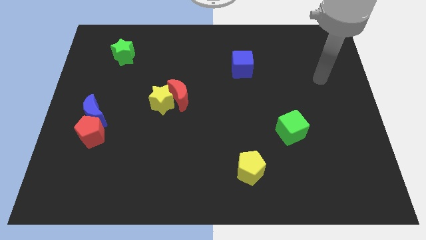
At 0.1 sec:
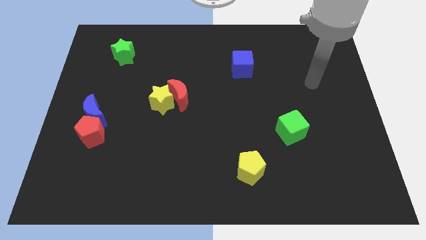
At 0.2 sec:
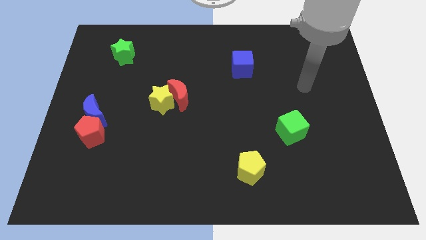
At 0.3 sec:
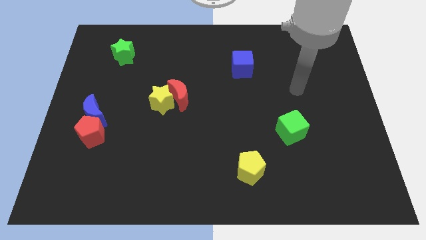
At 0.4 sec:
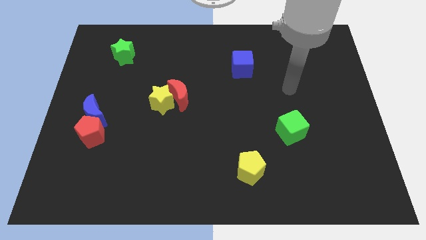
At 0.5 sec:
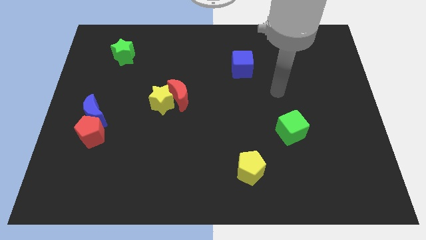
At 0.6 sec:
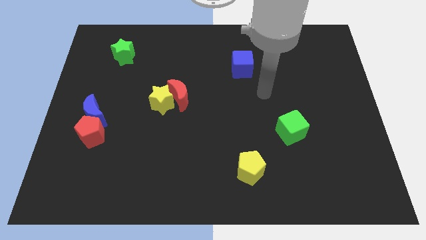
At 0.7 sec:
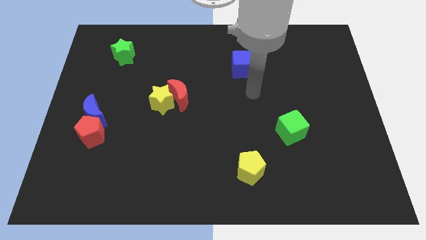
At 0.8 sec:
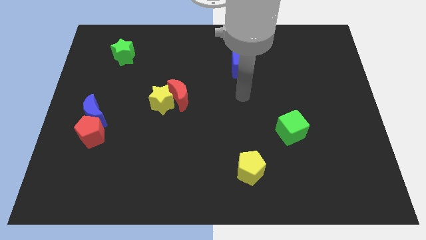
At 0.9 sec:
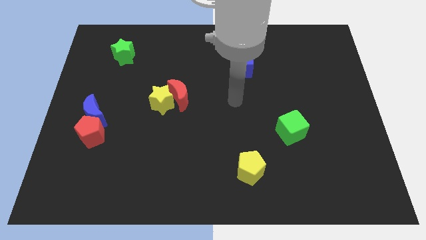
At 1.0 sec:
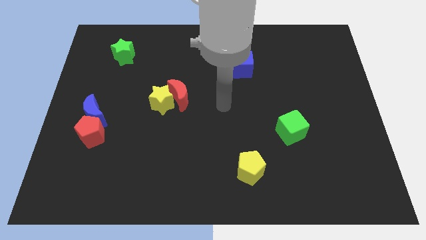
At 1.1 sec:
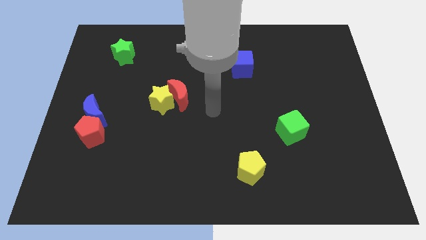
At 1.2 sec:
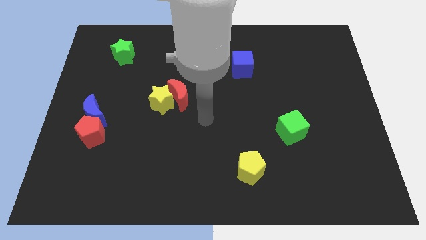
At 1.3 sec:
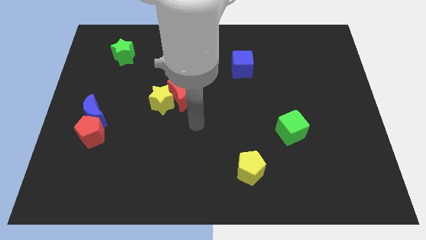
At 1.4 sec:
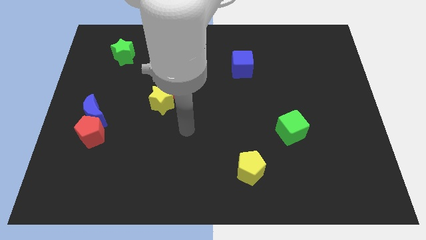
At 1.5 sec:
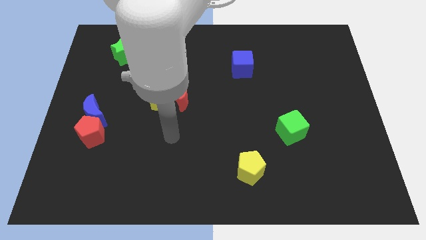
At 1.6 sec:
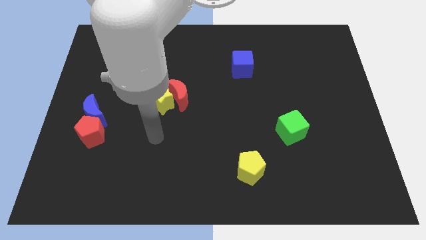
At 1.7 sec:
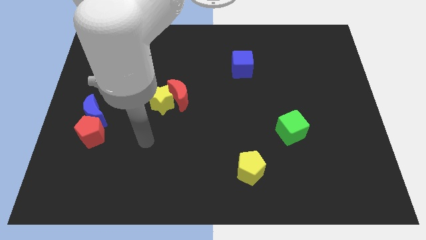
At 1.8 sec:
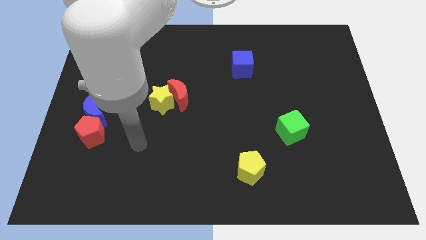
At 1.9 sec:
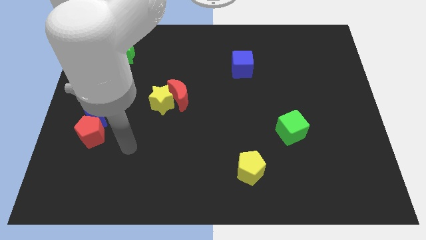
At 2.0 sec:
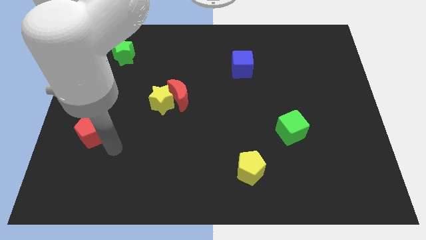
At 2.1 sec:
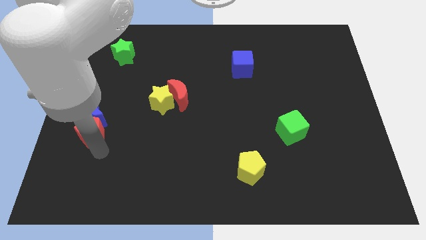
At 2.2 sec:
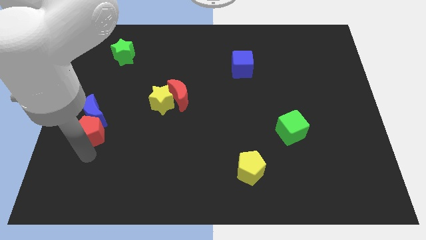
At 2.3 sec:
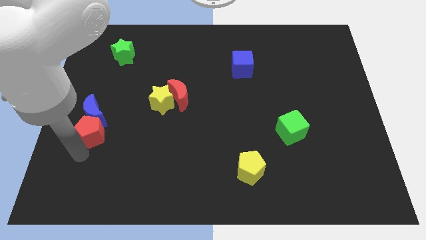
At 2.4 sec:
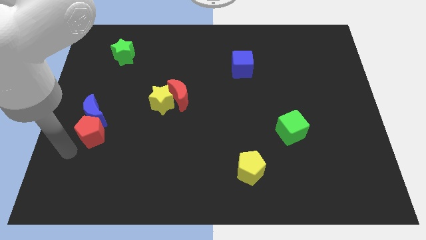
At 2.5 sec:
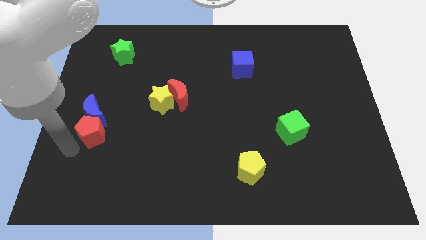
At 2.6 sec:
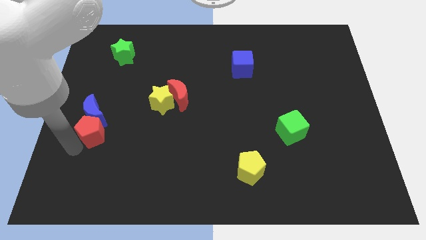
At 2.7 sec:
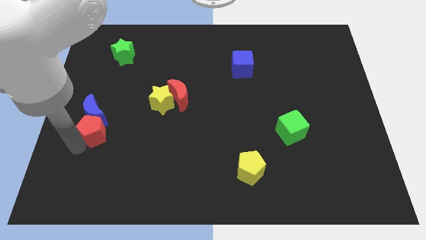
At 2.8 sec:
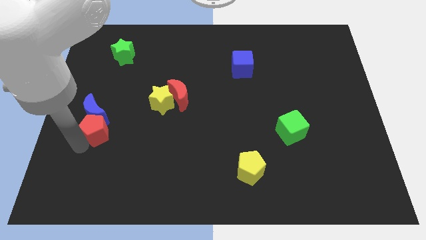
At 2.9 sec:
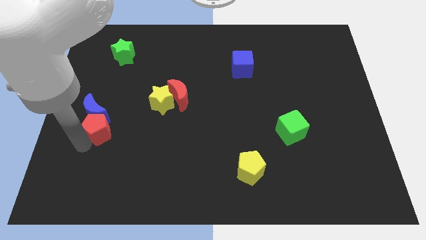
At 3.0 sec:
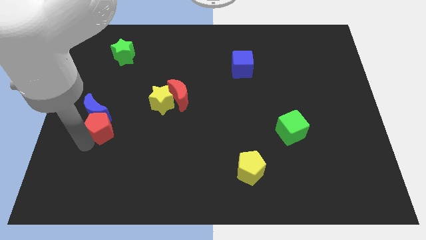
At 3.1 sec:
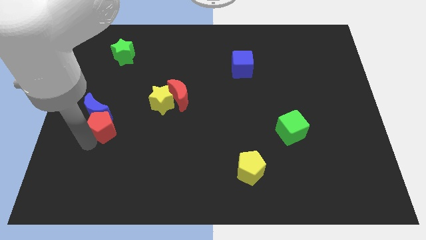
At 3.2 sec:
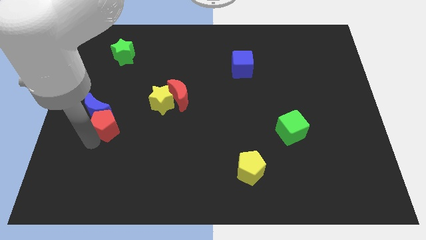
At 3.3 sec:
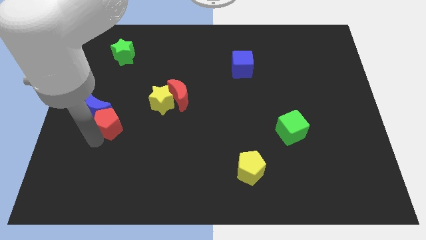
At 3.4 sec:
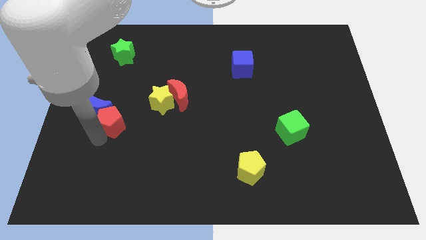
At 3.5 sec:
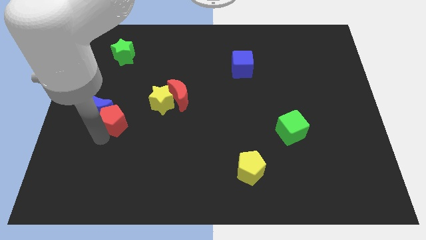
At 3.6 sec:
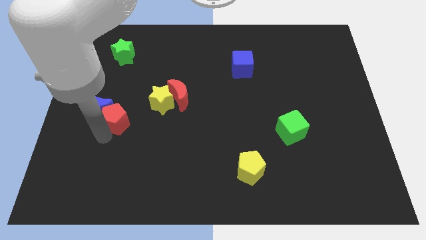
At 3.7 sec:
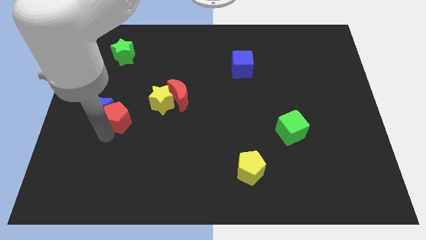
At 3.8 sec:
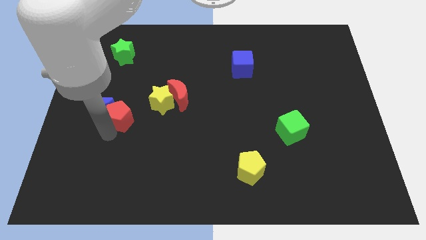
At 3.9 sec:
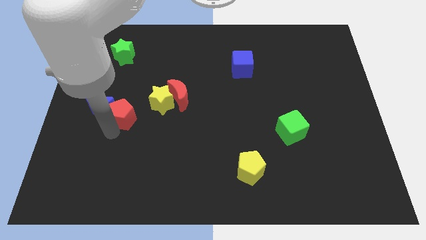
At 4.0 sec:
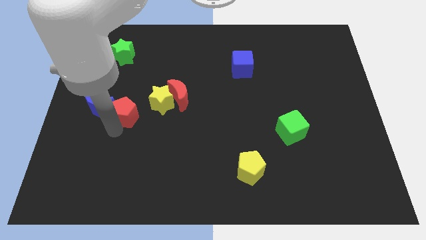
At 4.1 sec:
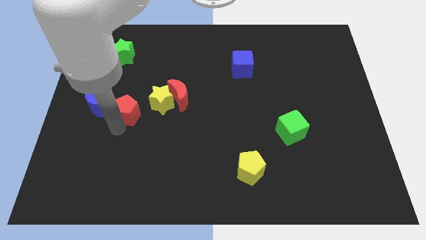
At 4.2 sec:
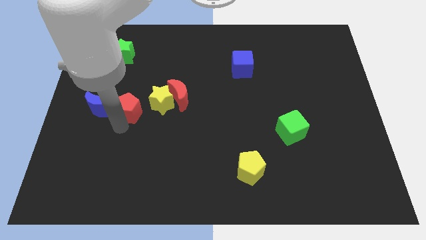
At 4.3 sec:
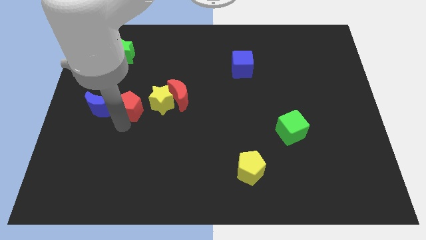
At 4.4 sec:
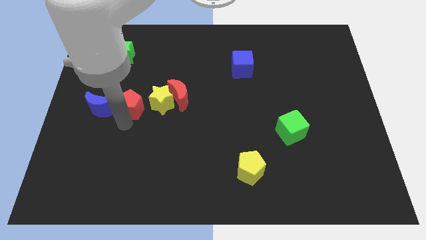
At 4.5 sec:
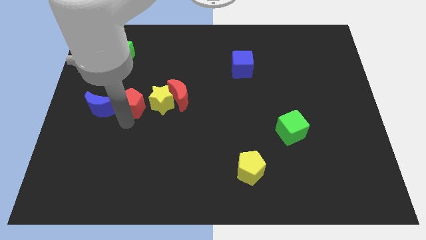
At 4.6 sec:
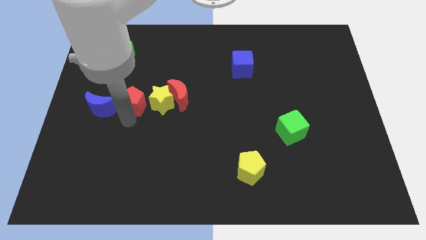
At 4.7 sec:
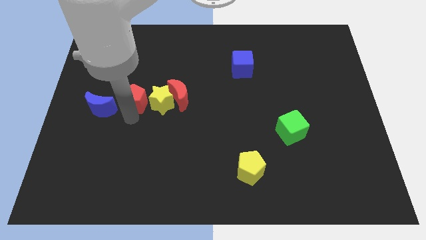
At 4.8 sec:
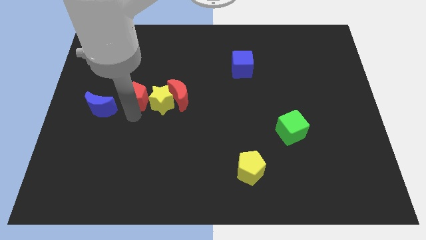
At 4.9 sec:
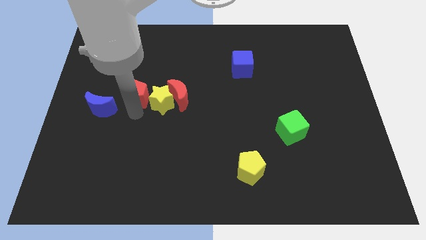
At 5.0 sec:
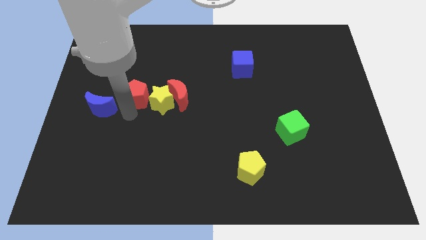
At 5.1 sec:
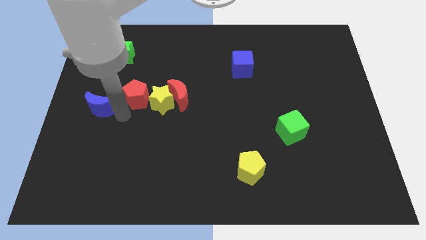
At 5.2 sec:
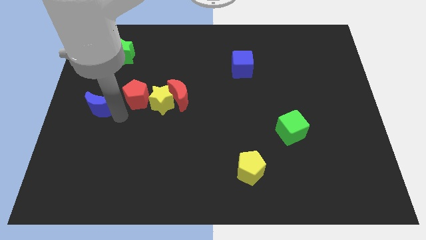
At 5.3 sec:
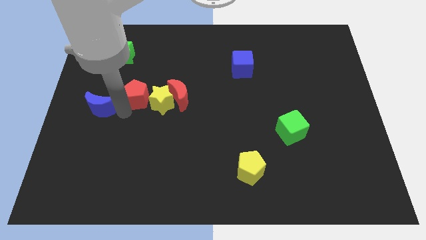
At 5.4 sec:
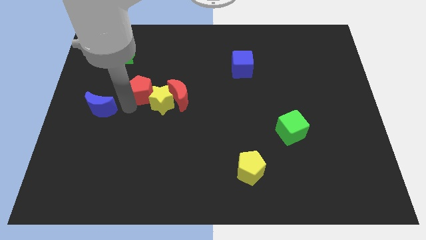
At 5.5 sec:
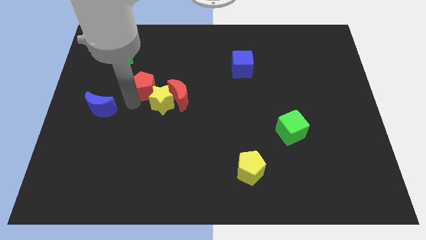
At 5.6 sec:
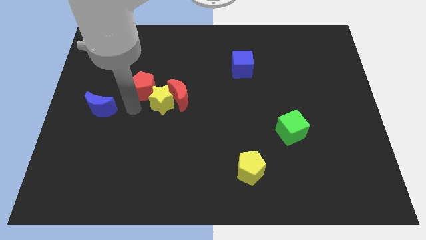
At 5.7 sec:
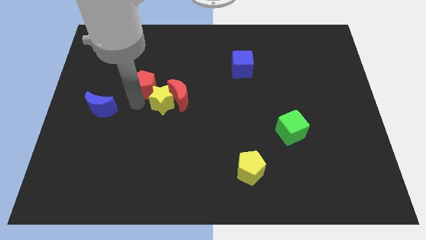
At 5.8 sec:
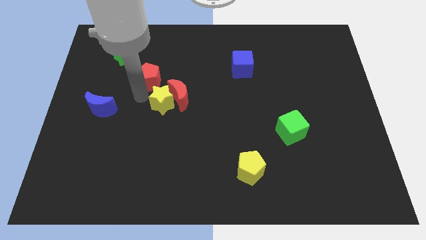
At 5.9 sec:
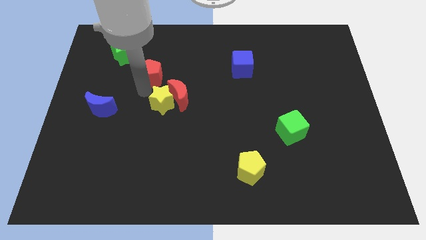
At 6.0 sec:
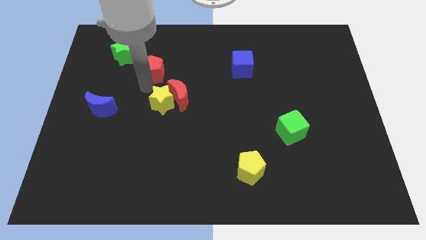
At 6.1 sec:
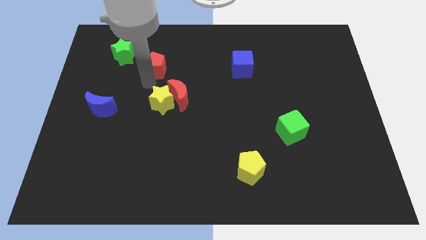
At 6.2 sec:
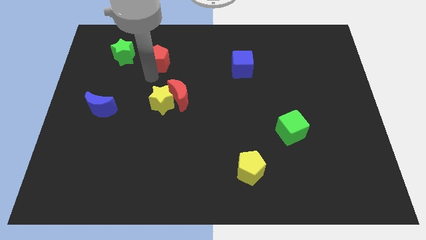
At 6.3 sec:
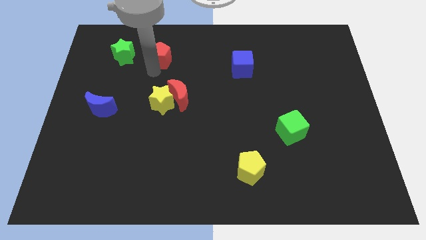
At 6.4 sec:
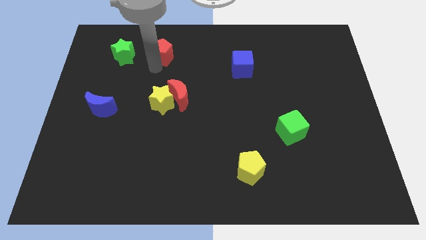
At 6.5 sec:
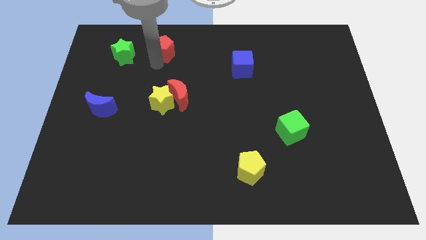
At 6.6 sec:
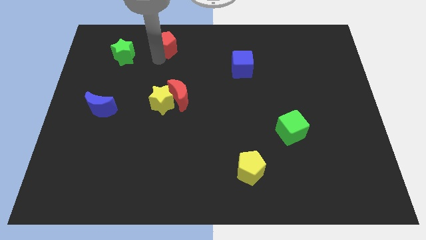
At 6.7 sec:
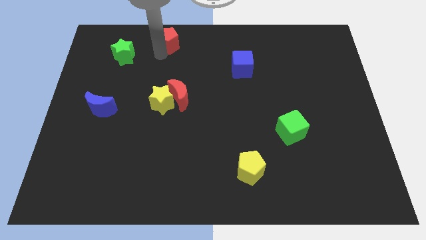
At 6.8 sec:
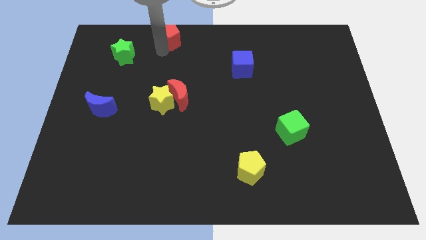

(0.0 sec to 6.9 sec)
move the red pentagon to the top side
